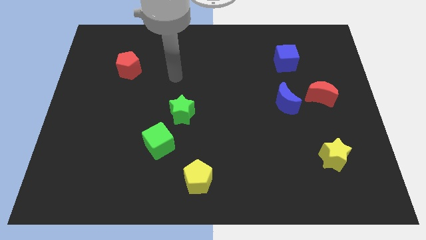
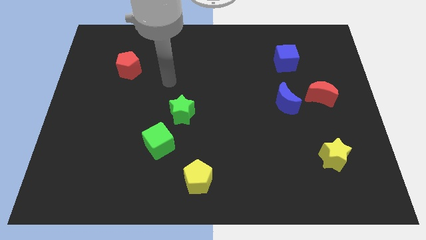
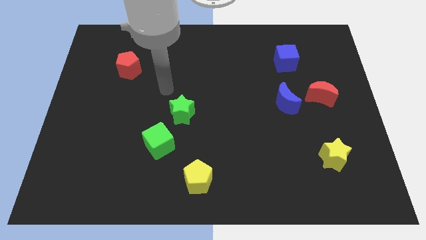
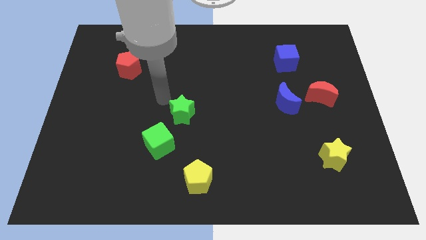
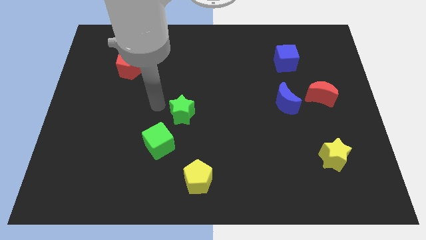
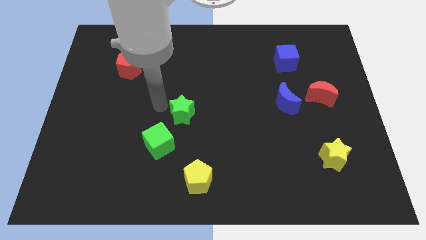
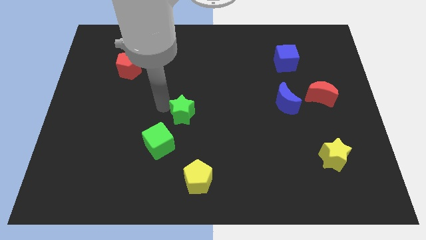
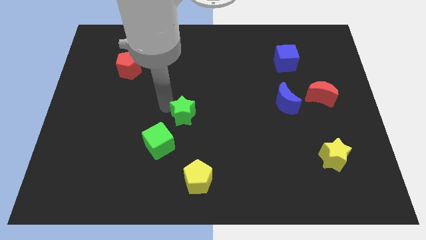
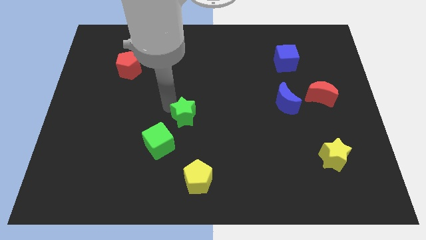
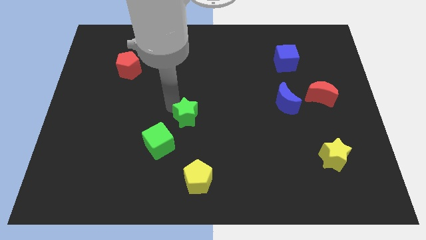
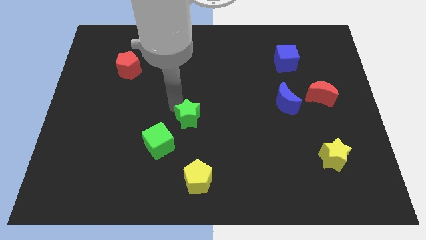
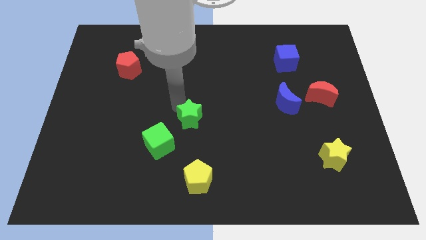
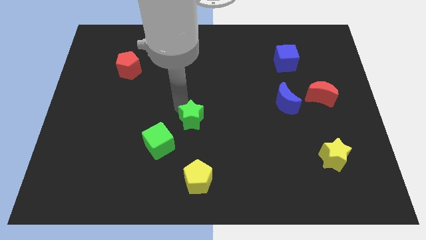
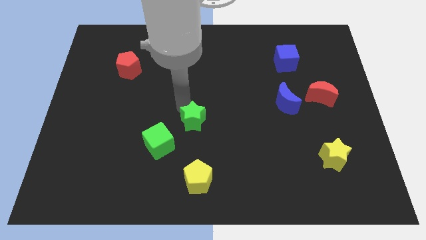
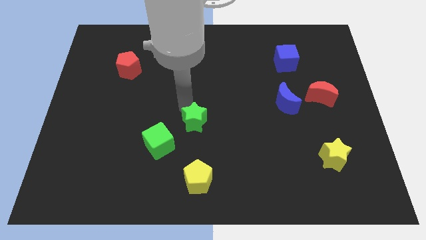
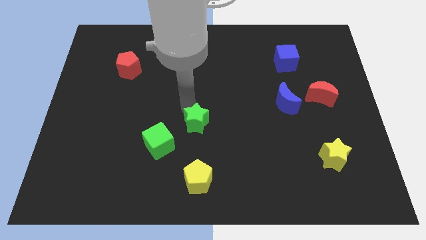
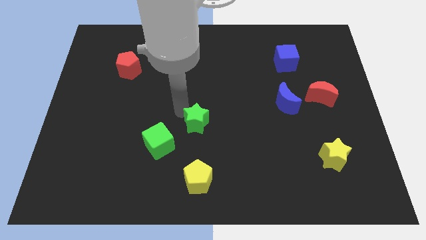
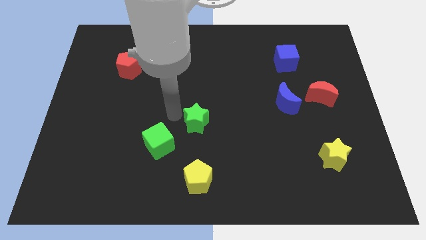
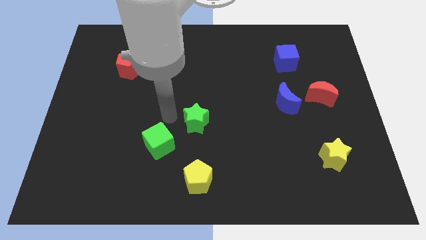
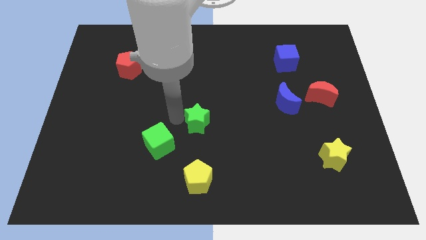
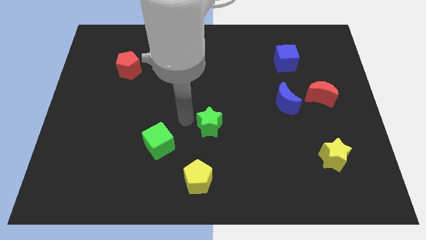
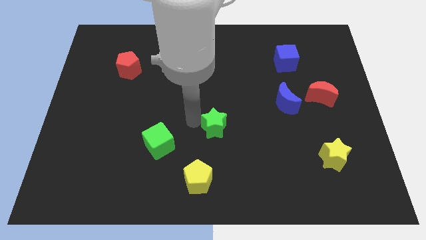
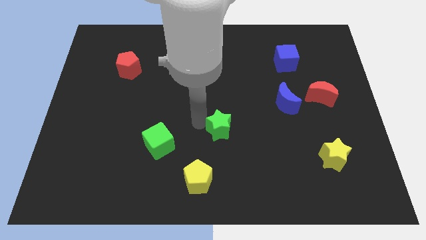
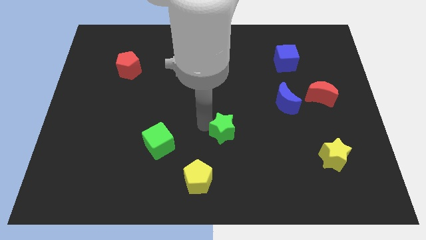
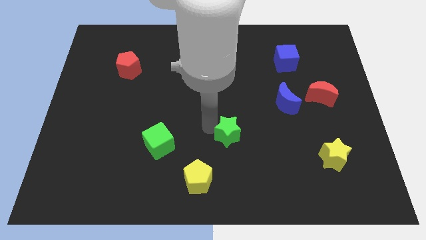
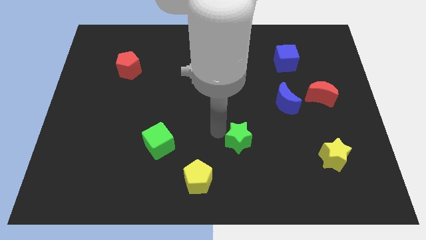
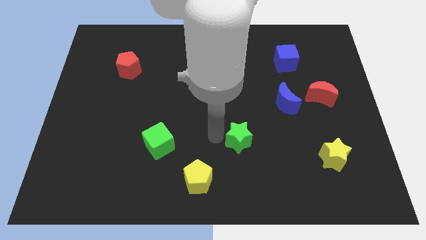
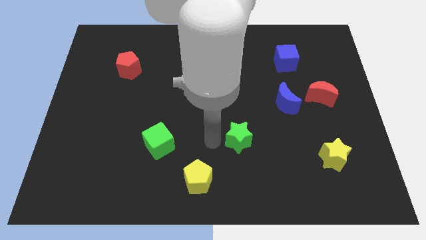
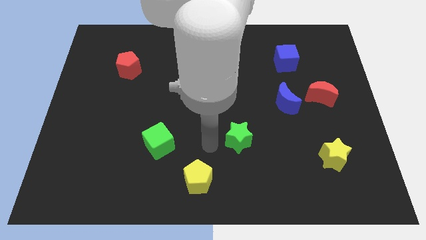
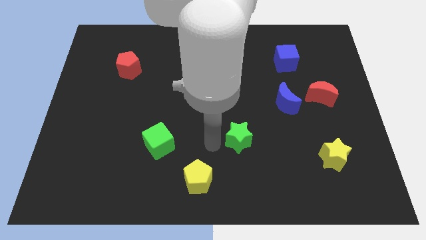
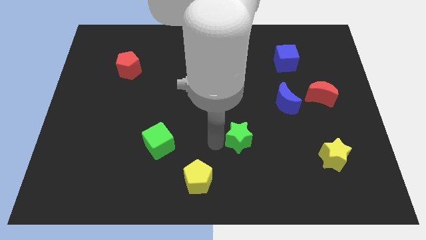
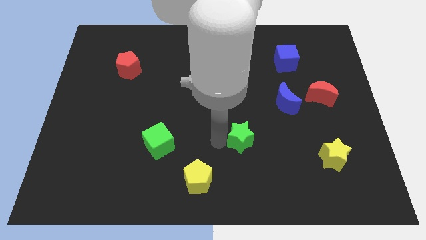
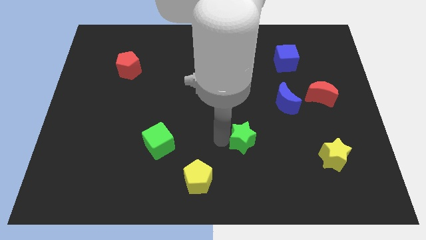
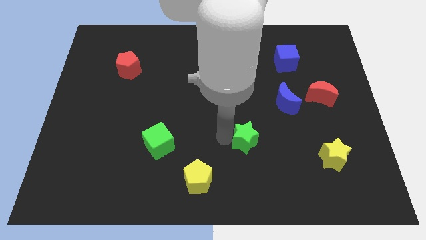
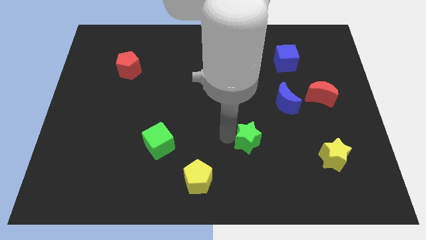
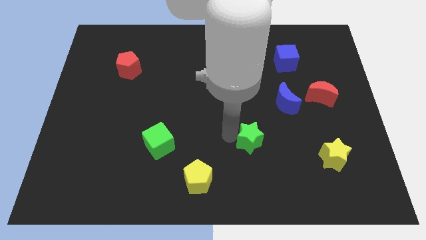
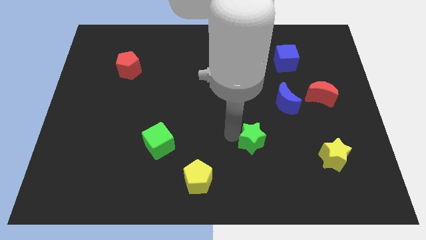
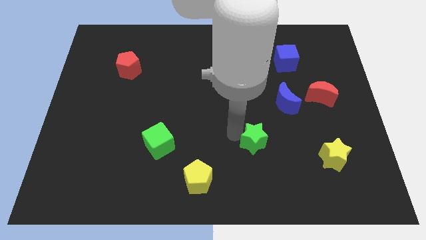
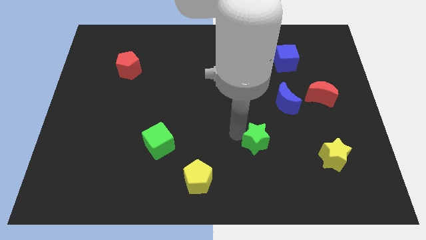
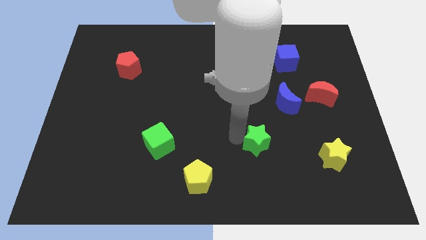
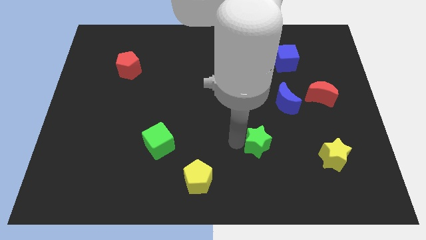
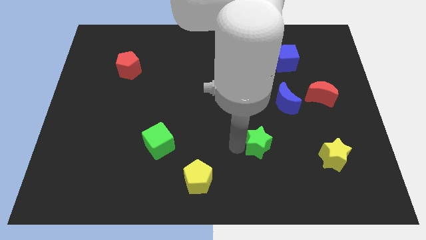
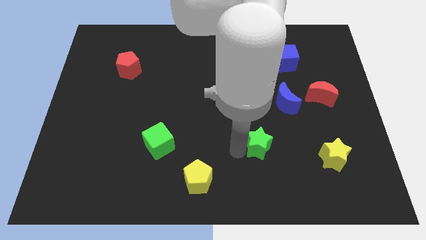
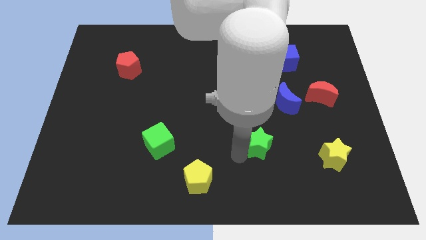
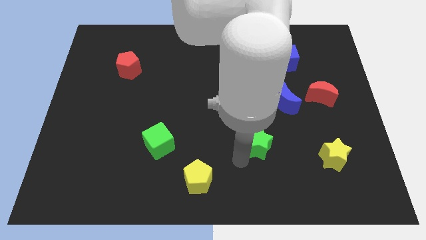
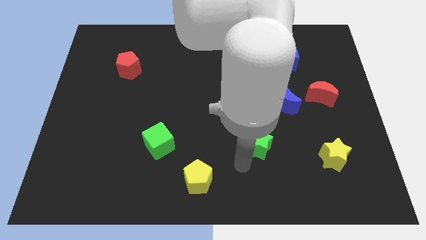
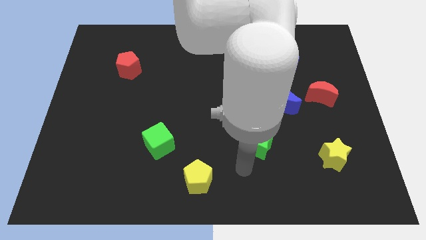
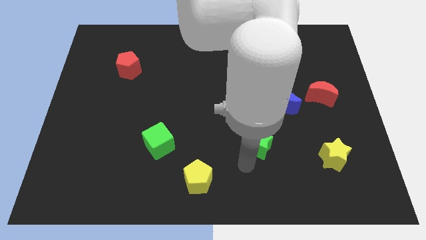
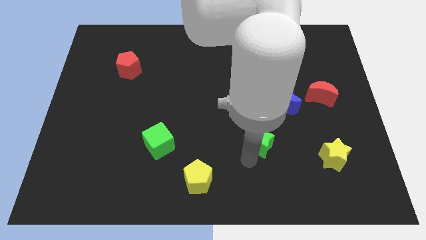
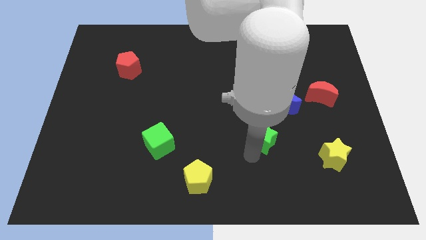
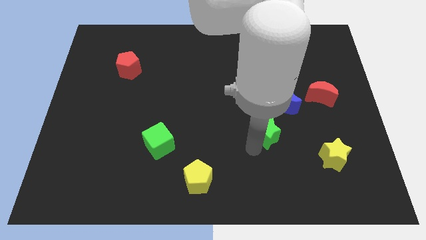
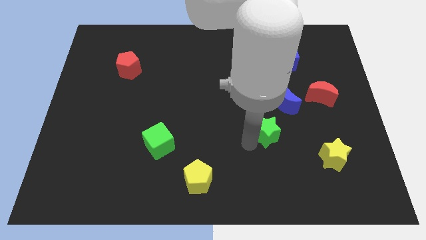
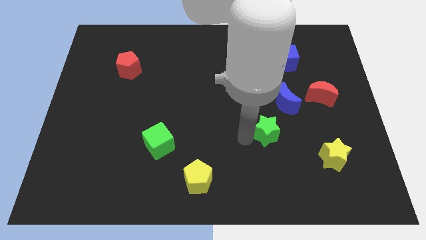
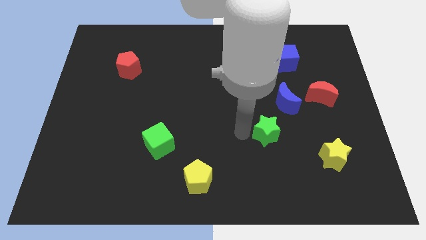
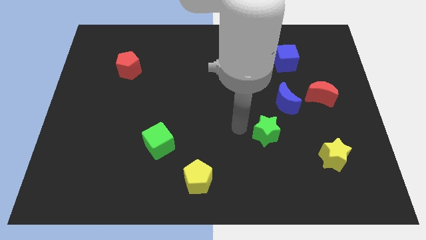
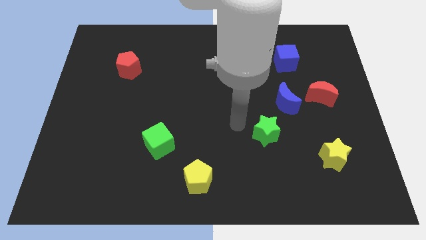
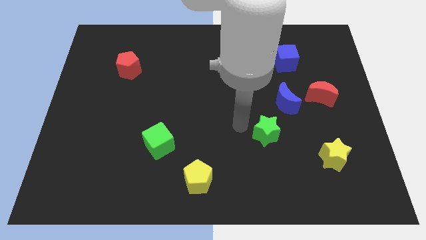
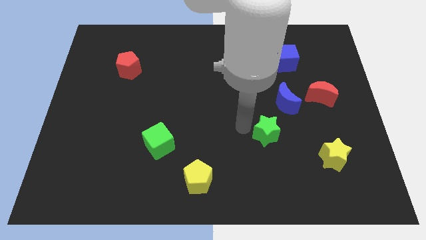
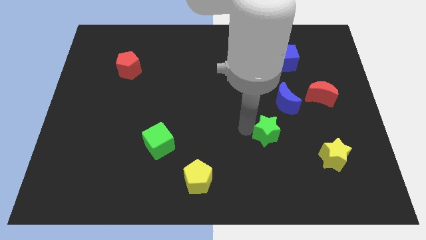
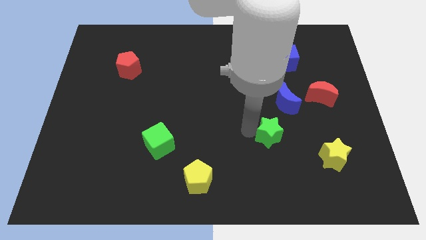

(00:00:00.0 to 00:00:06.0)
move the green star to the bottom side of the blue moon
